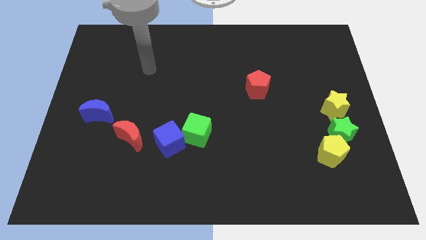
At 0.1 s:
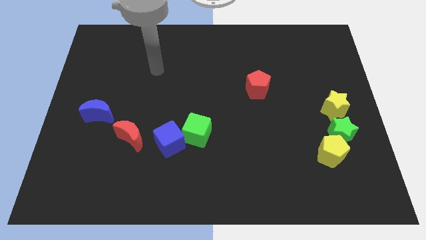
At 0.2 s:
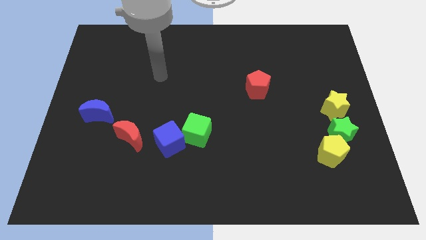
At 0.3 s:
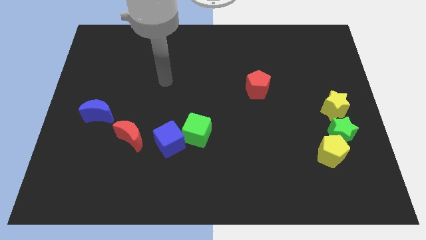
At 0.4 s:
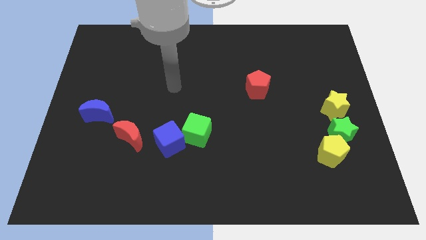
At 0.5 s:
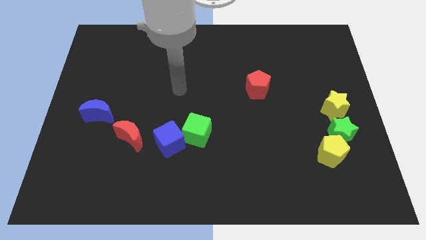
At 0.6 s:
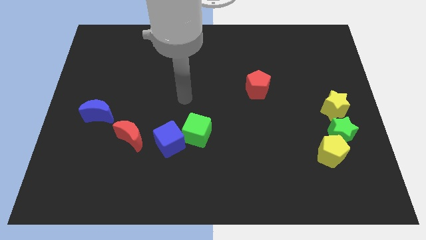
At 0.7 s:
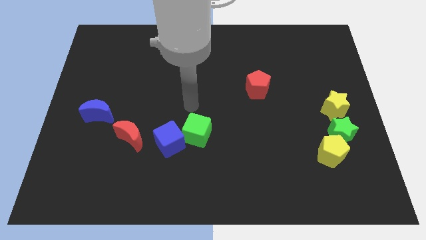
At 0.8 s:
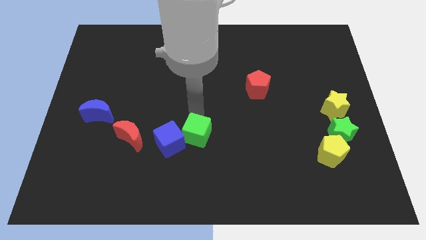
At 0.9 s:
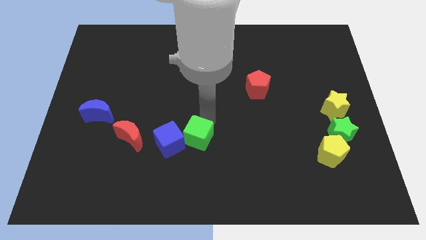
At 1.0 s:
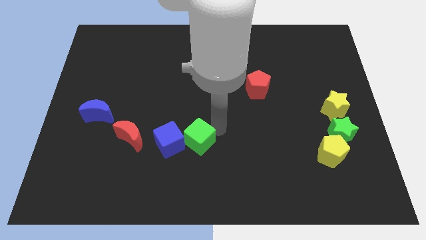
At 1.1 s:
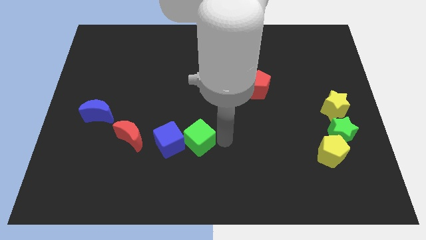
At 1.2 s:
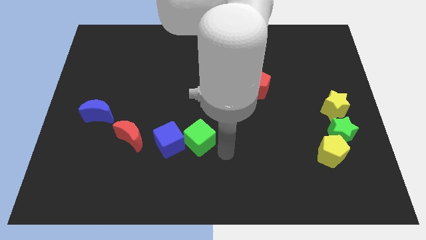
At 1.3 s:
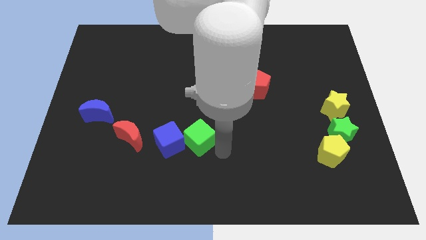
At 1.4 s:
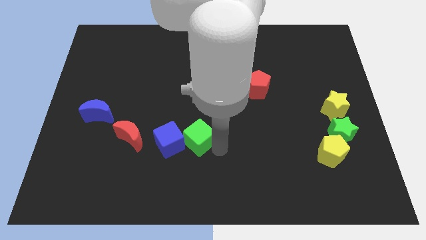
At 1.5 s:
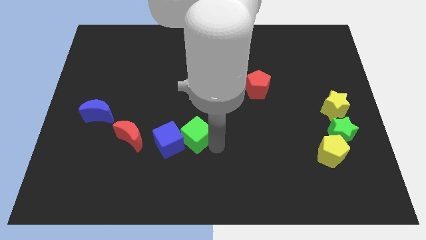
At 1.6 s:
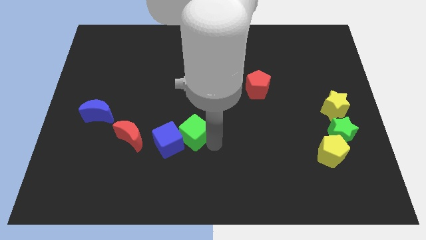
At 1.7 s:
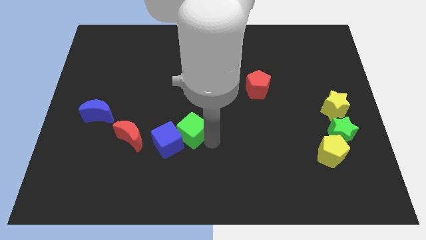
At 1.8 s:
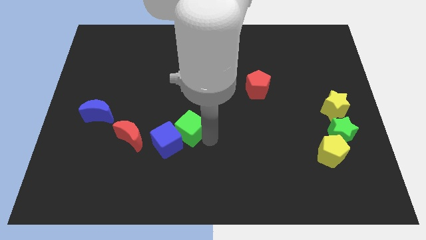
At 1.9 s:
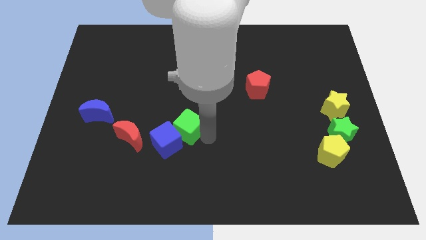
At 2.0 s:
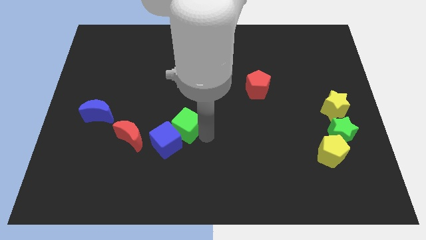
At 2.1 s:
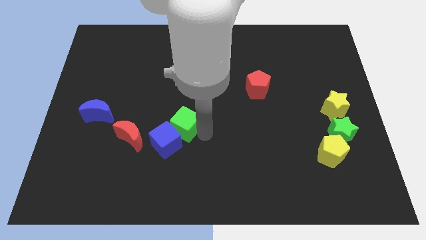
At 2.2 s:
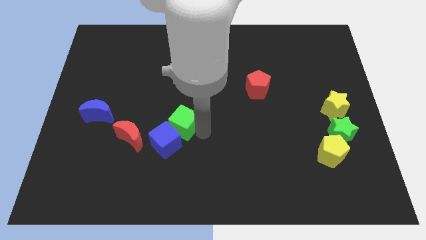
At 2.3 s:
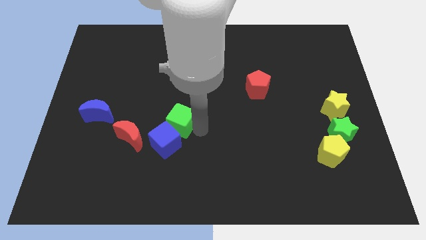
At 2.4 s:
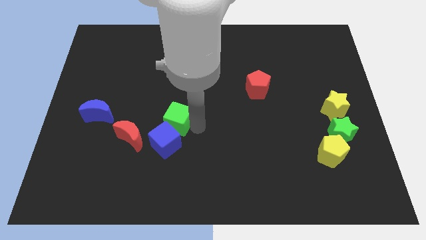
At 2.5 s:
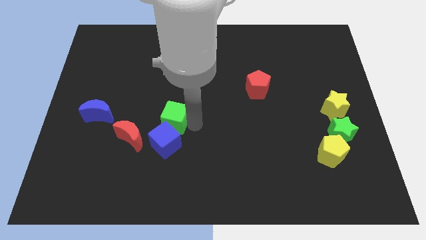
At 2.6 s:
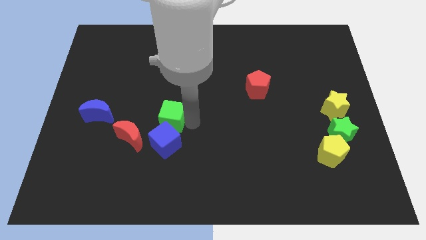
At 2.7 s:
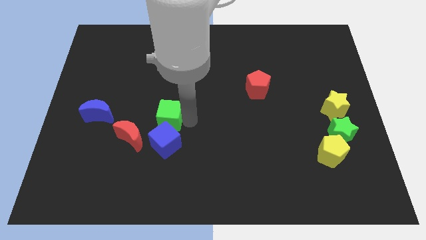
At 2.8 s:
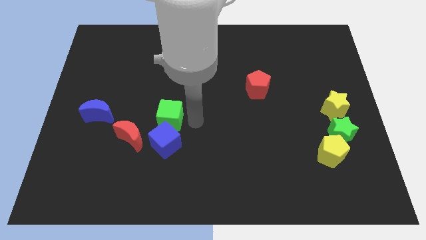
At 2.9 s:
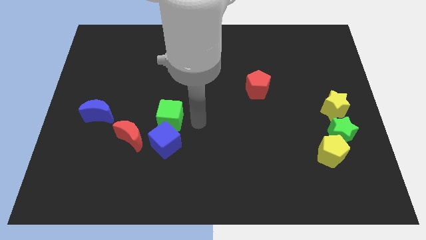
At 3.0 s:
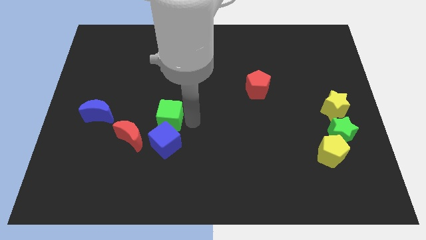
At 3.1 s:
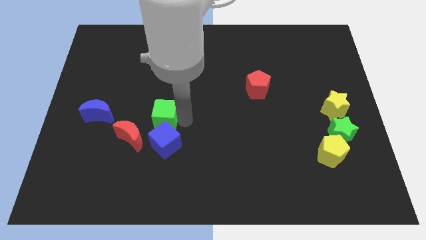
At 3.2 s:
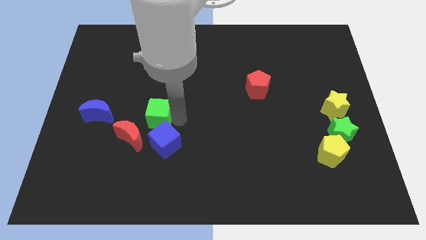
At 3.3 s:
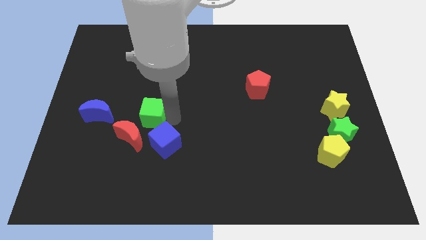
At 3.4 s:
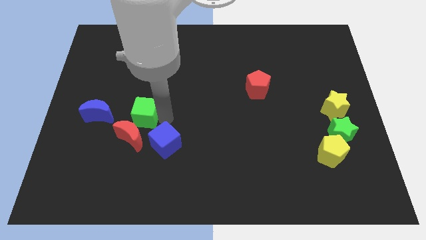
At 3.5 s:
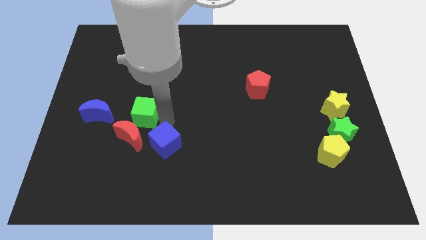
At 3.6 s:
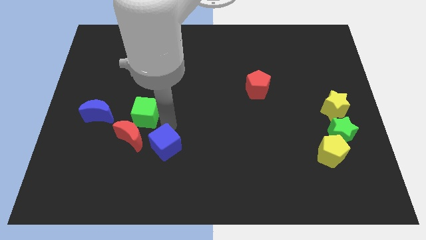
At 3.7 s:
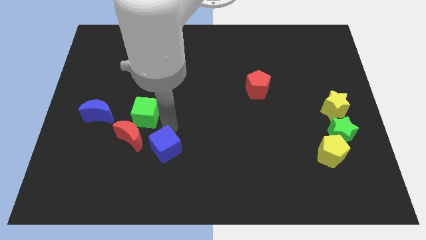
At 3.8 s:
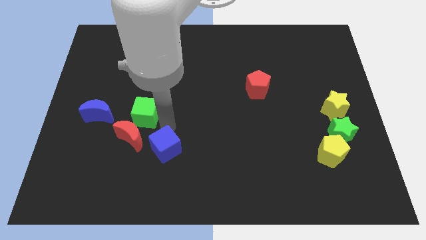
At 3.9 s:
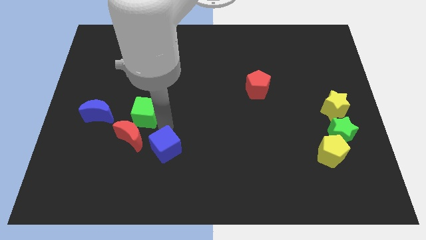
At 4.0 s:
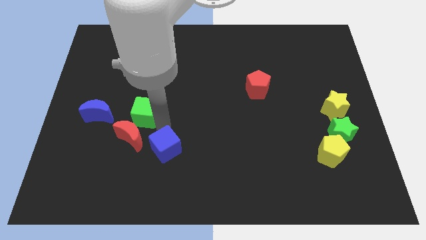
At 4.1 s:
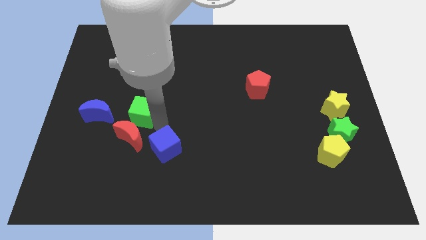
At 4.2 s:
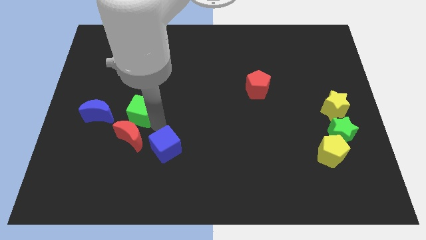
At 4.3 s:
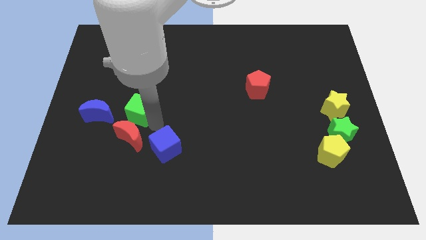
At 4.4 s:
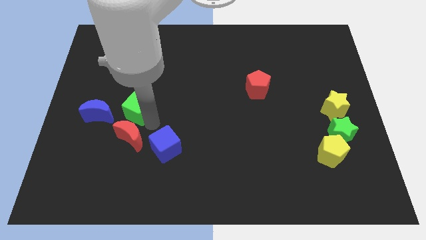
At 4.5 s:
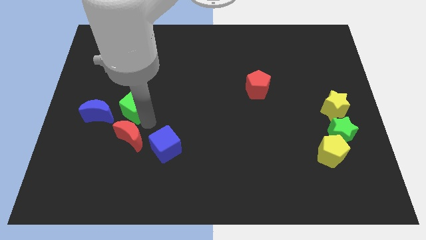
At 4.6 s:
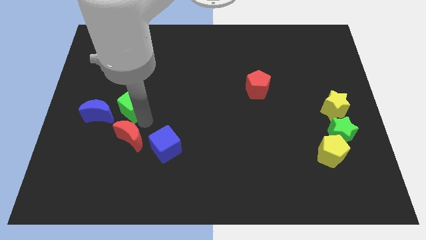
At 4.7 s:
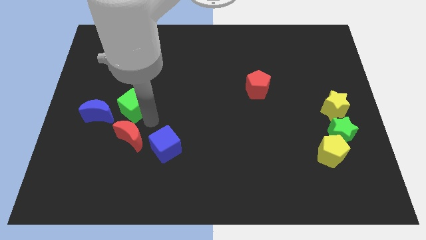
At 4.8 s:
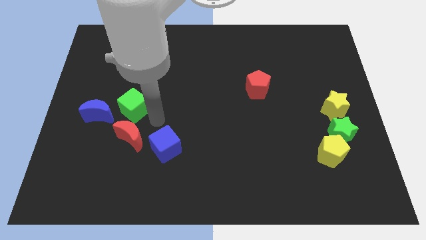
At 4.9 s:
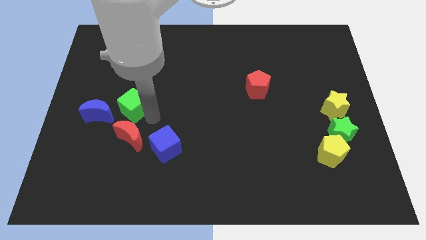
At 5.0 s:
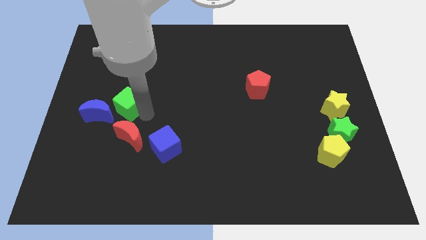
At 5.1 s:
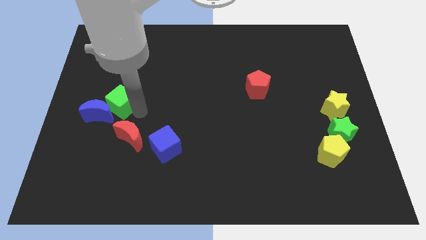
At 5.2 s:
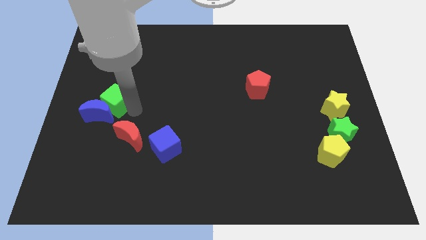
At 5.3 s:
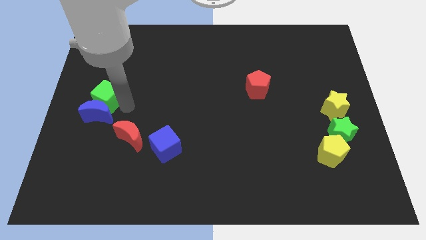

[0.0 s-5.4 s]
slide the green cube to the left side of the board

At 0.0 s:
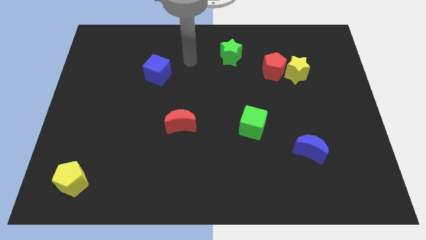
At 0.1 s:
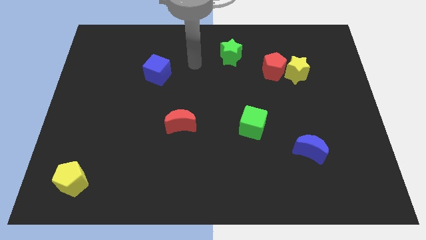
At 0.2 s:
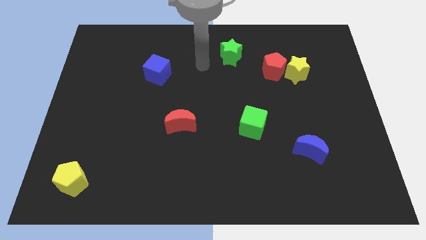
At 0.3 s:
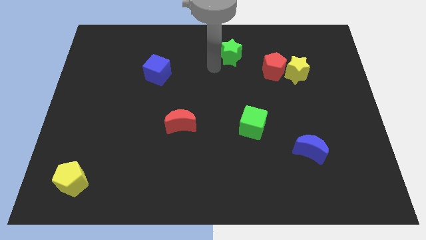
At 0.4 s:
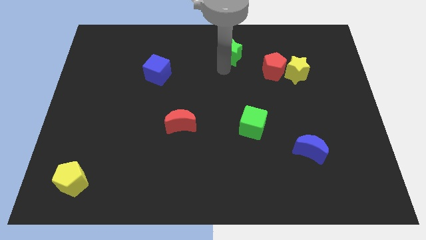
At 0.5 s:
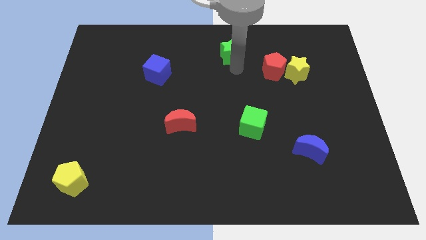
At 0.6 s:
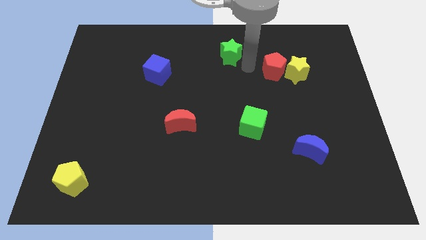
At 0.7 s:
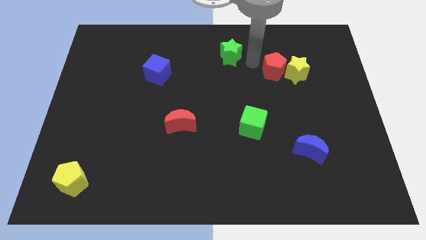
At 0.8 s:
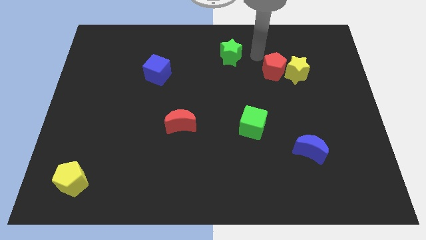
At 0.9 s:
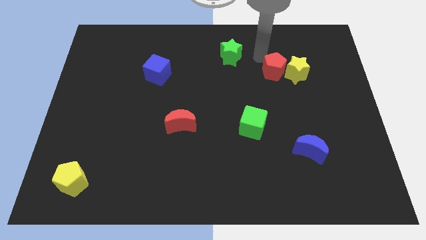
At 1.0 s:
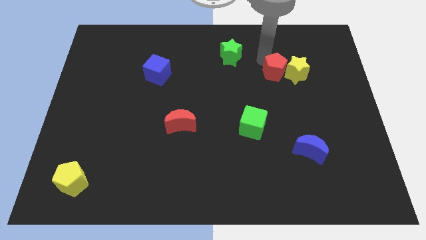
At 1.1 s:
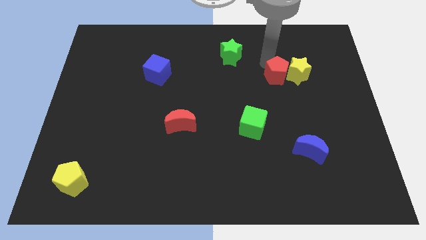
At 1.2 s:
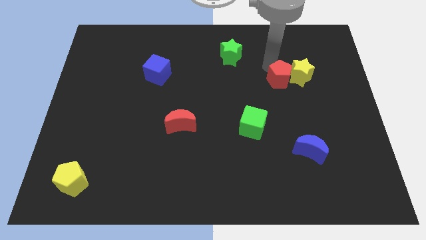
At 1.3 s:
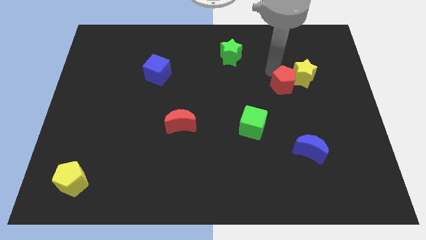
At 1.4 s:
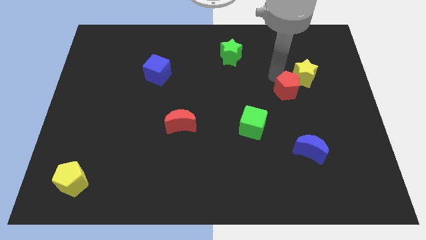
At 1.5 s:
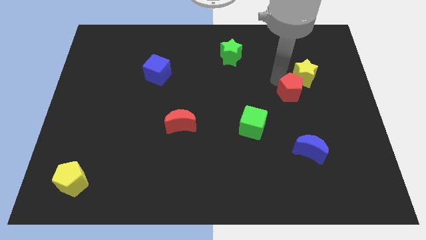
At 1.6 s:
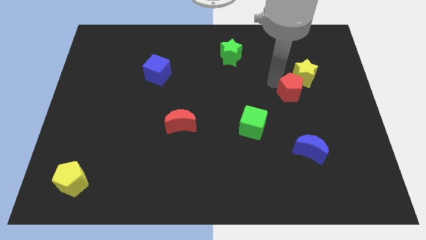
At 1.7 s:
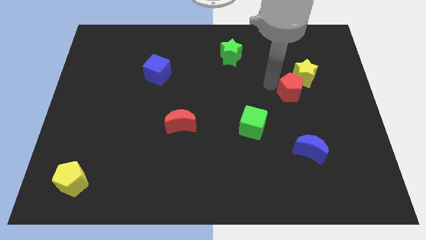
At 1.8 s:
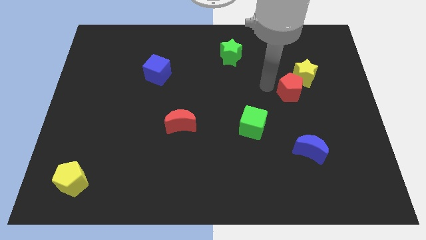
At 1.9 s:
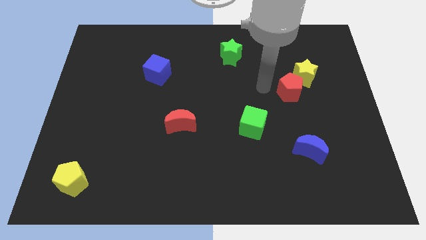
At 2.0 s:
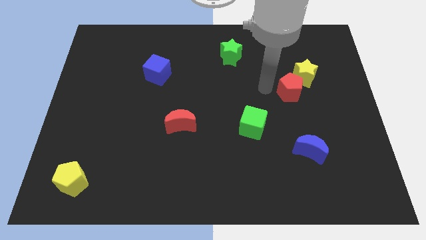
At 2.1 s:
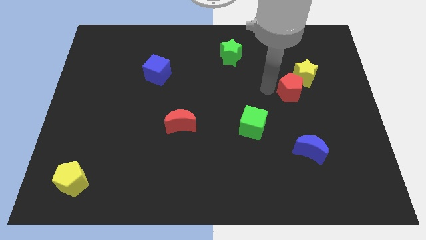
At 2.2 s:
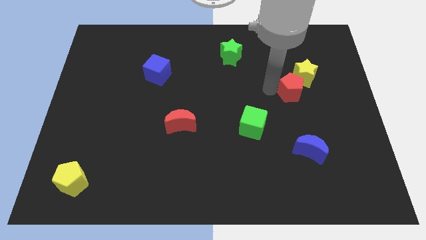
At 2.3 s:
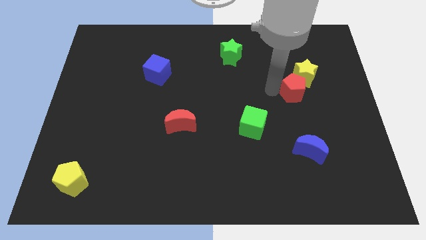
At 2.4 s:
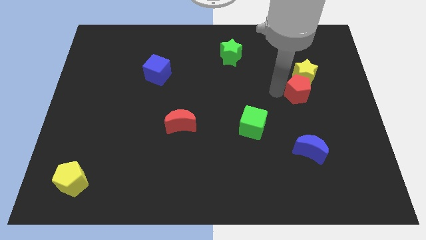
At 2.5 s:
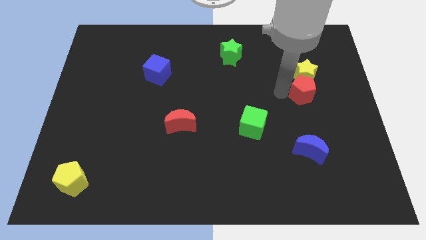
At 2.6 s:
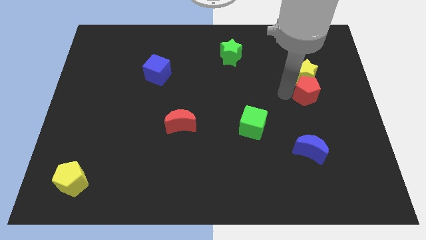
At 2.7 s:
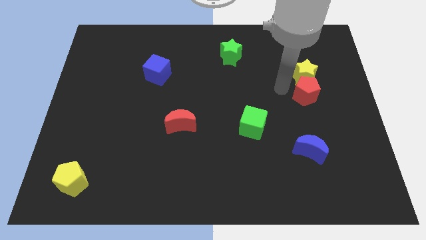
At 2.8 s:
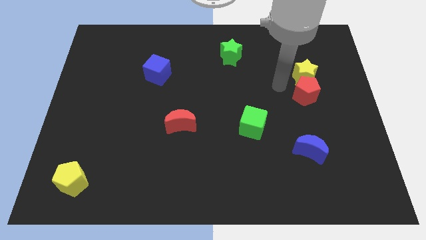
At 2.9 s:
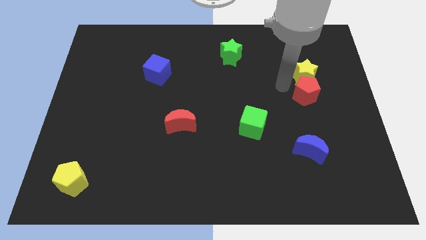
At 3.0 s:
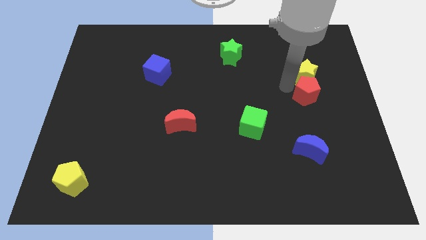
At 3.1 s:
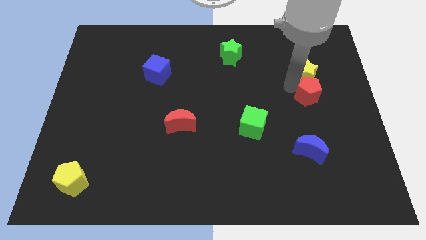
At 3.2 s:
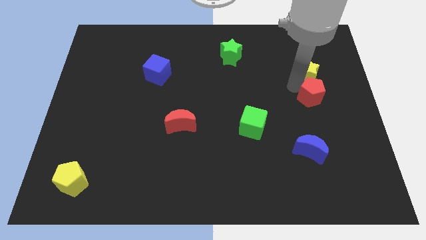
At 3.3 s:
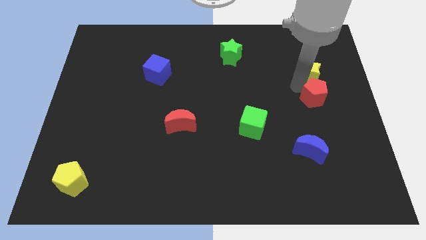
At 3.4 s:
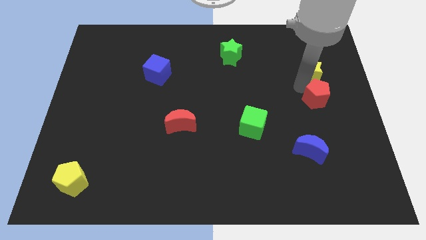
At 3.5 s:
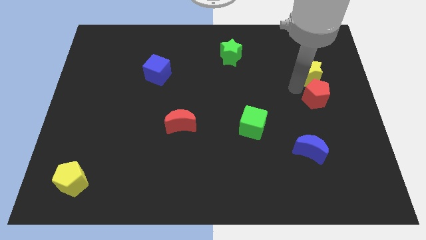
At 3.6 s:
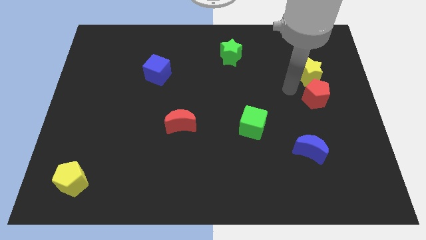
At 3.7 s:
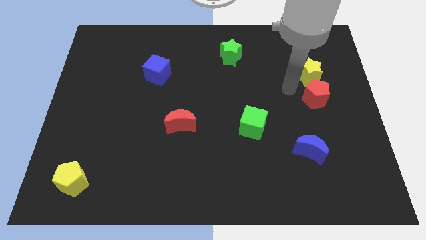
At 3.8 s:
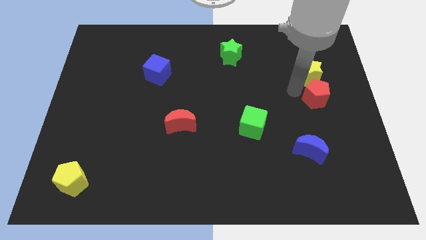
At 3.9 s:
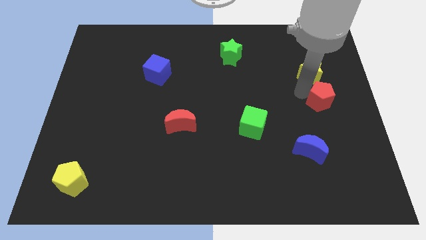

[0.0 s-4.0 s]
move the red pentagon to the right side of the board
